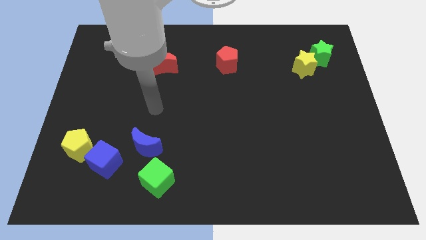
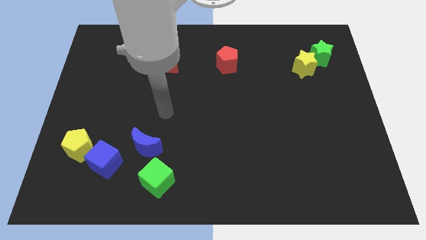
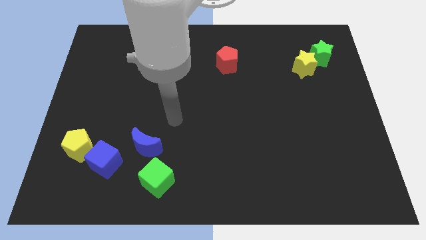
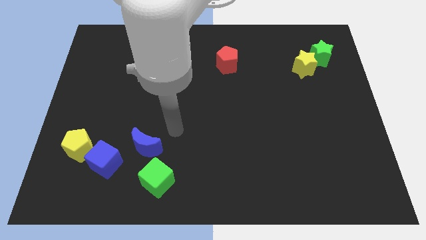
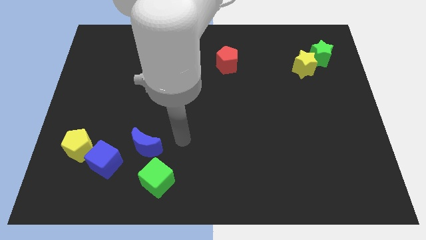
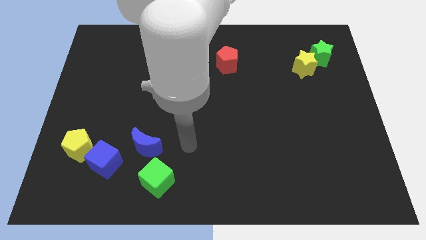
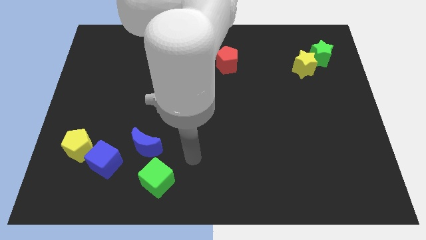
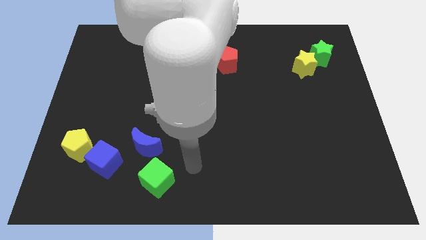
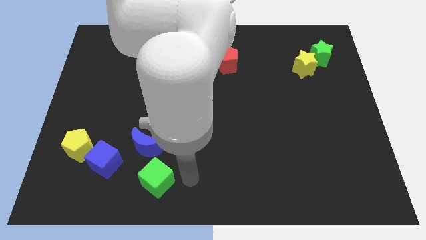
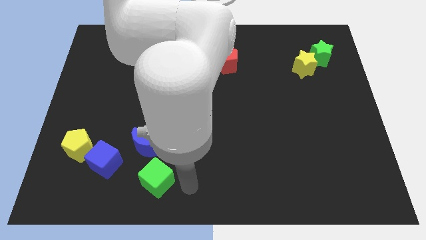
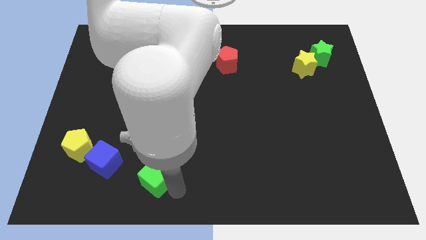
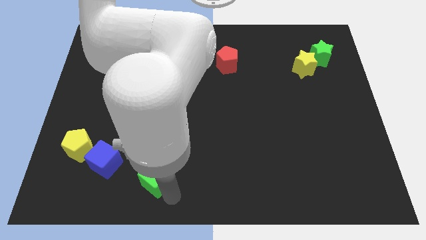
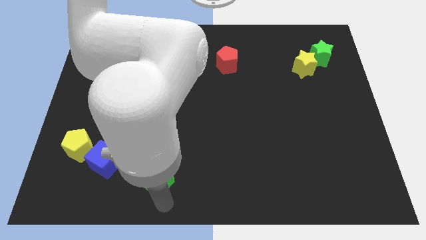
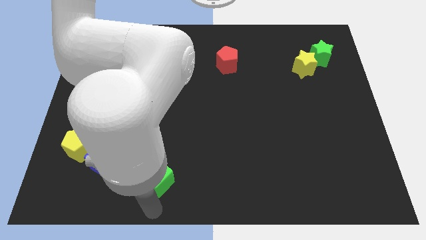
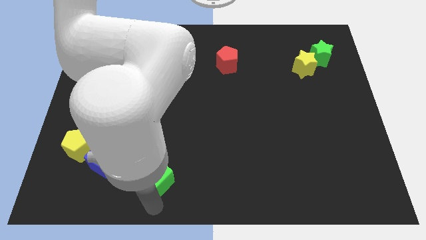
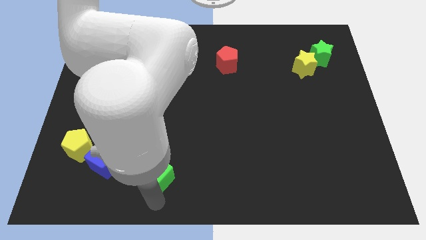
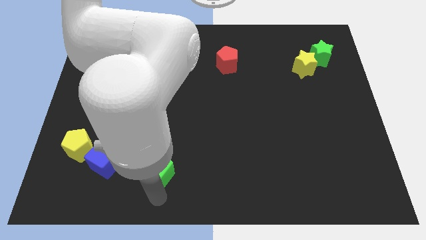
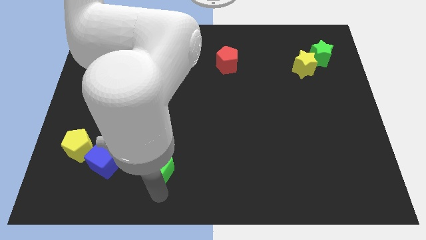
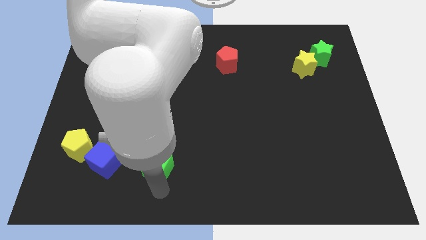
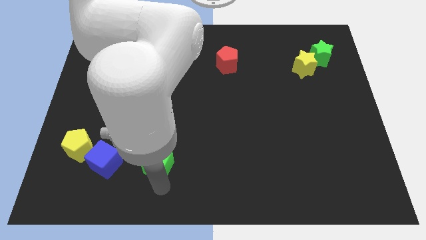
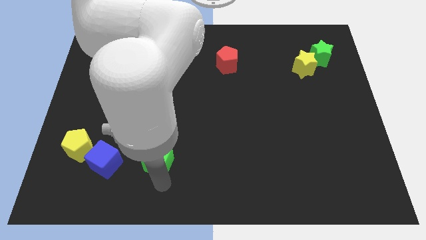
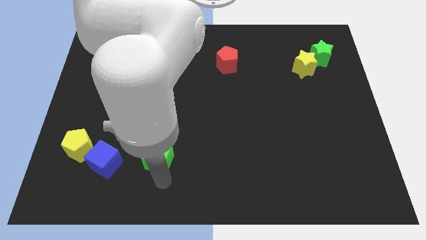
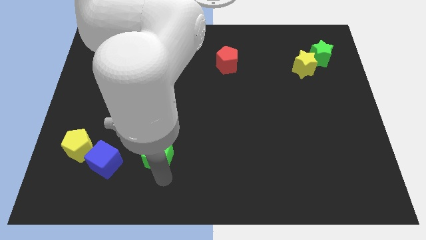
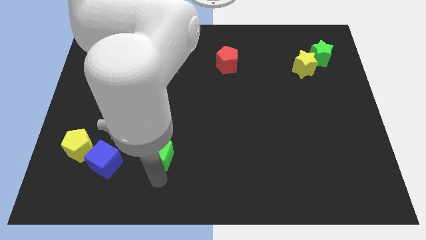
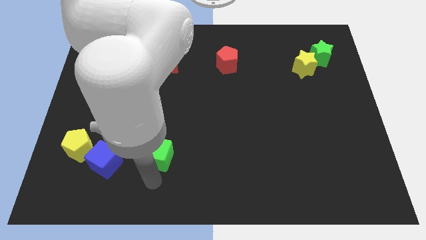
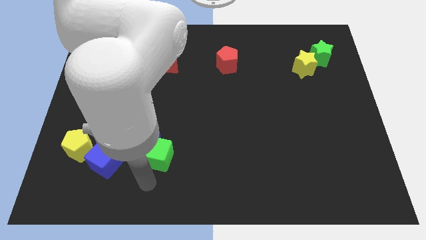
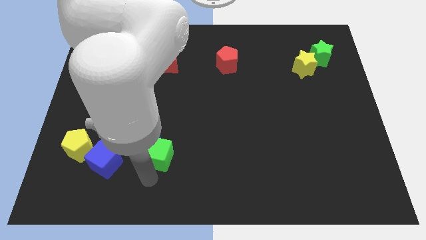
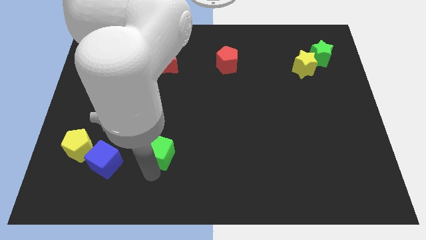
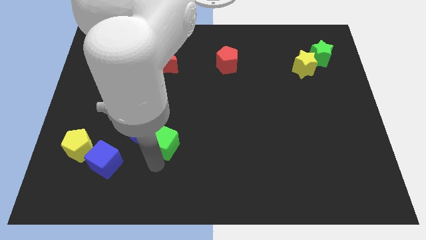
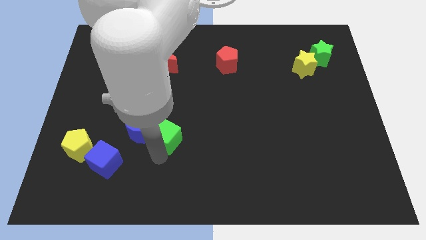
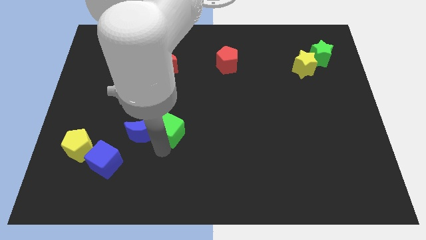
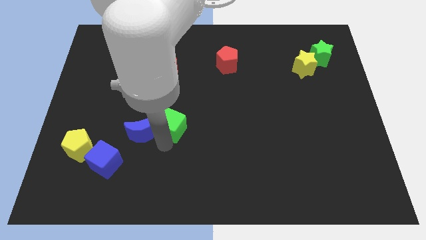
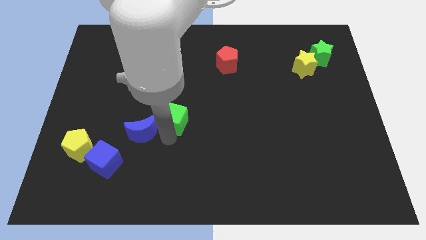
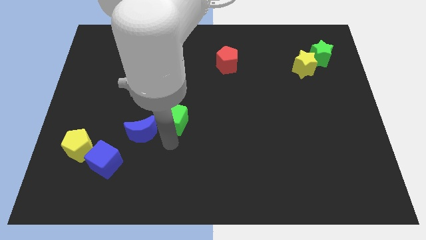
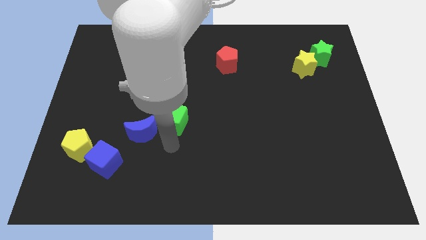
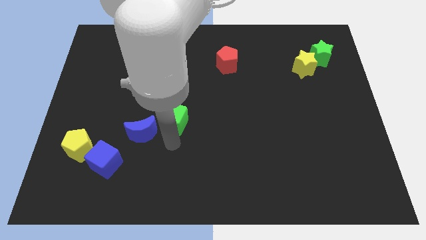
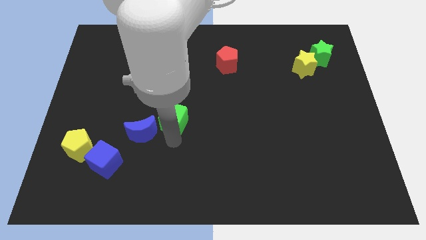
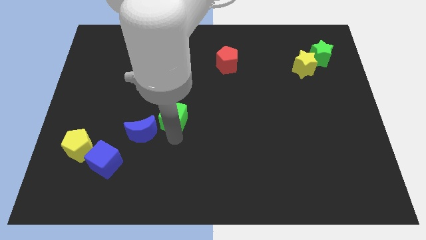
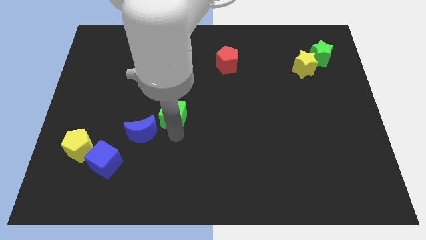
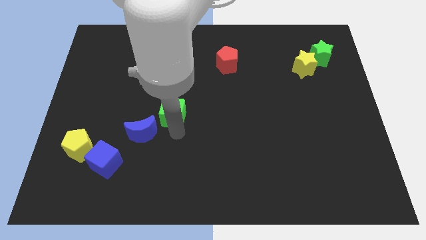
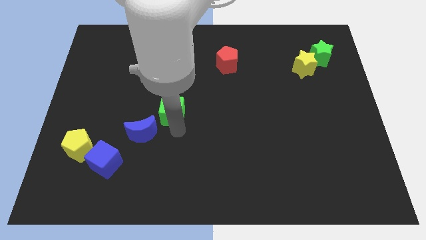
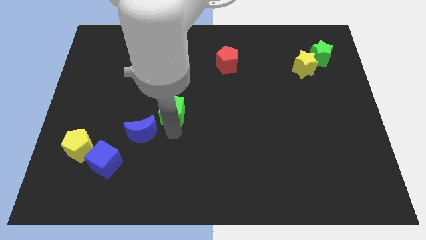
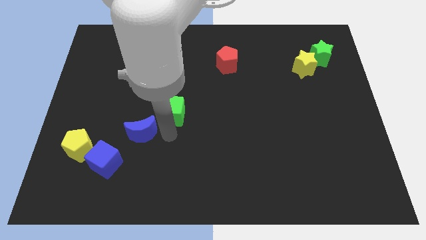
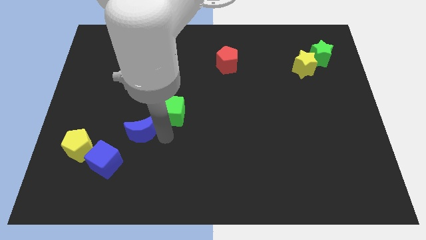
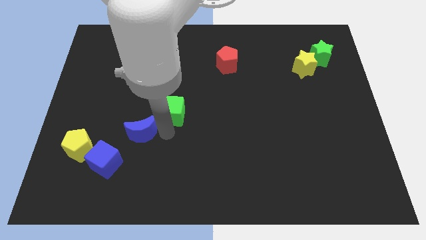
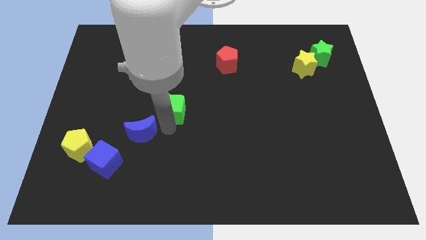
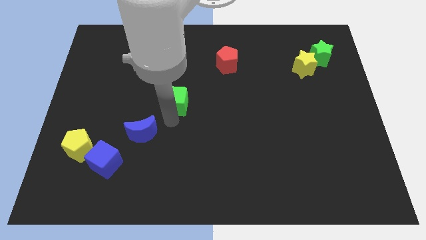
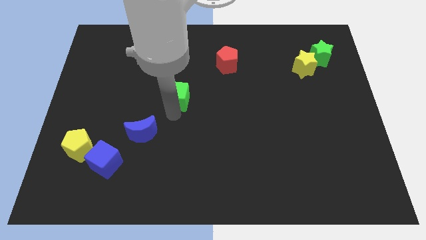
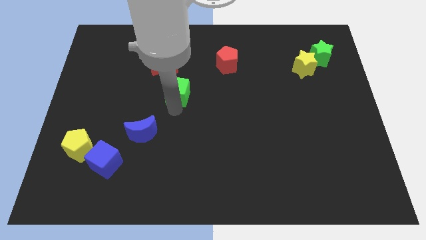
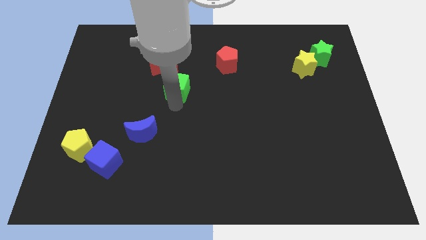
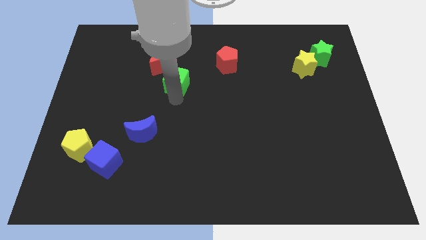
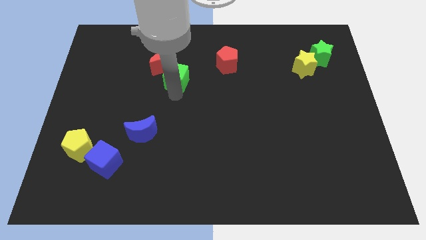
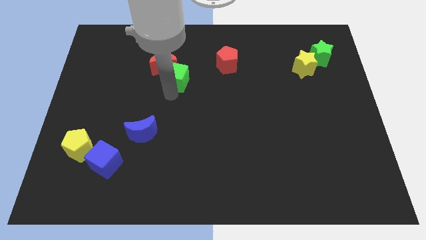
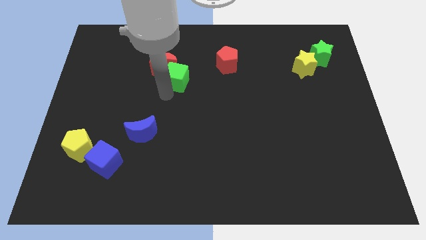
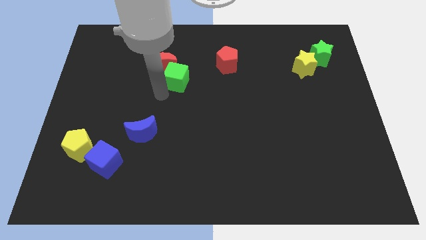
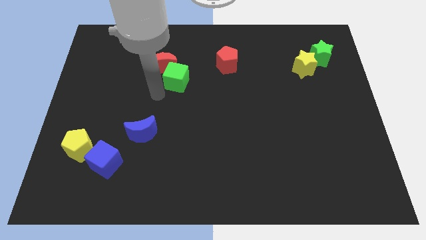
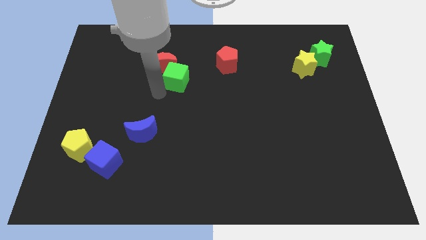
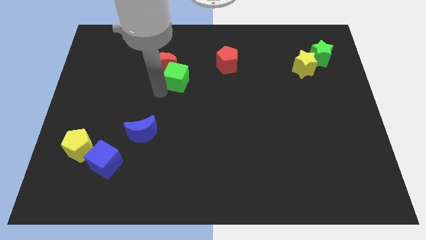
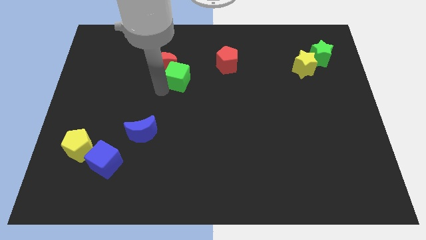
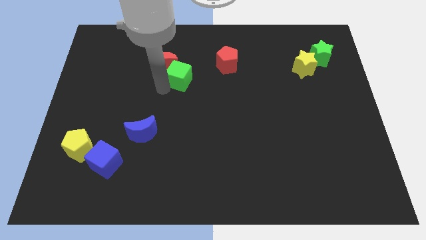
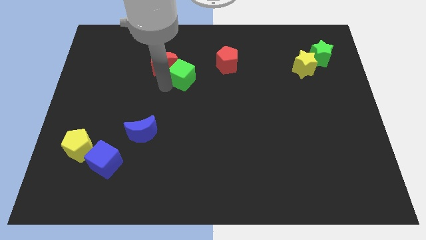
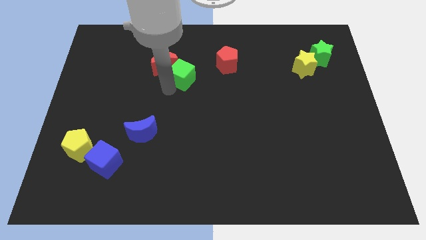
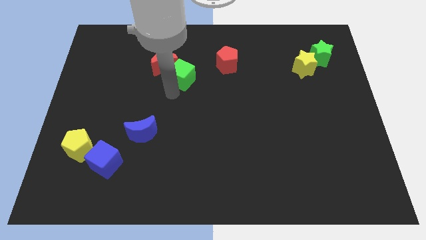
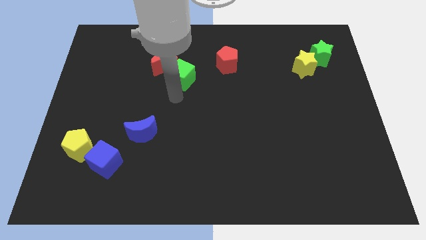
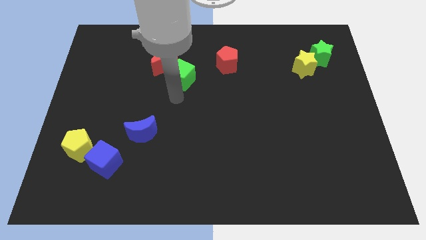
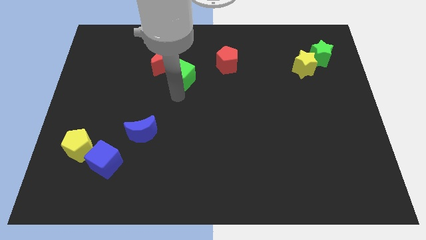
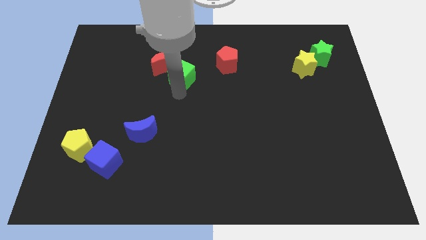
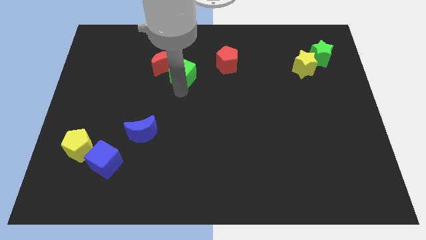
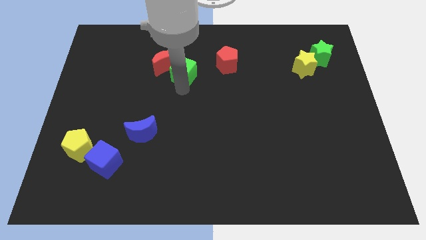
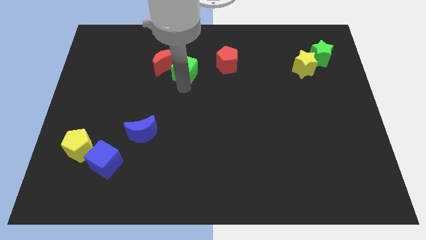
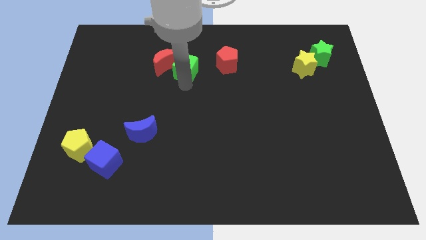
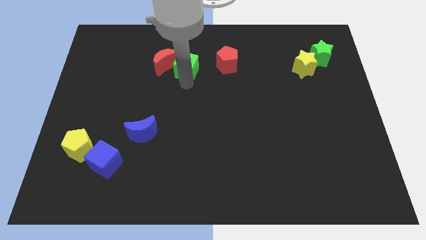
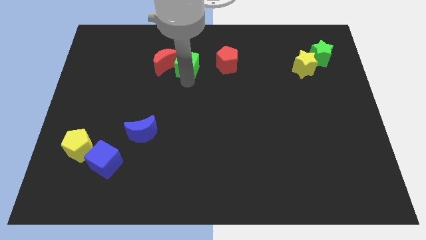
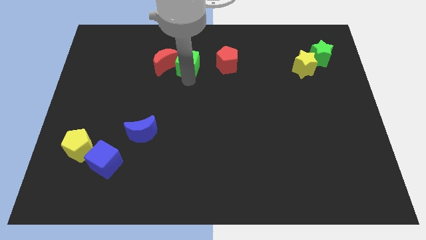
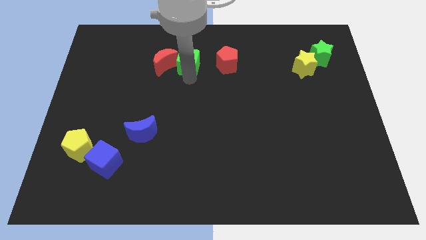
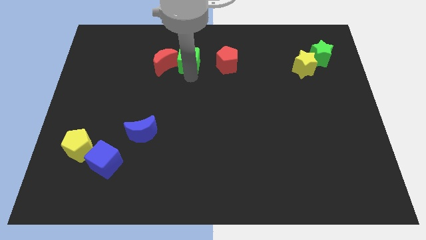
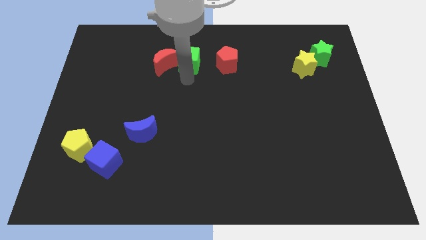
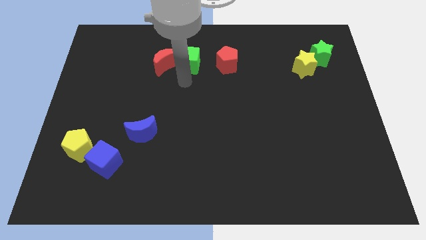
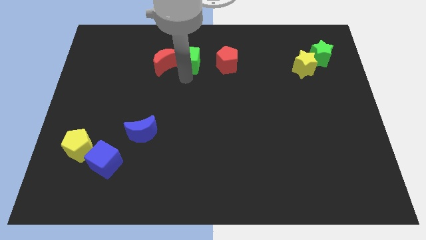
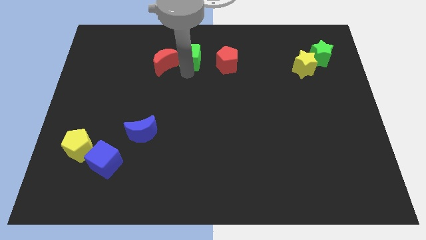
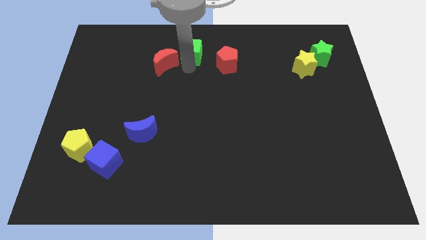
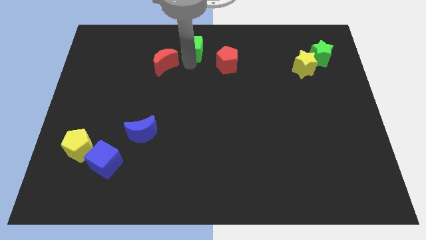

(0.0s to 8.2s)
move the green cube to the top
